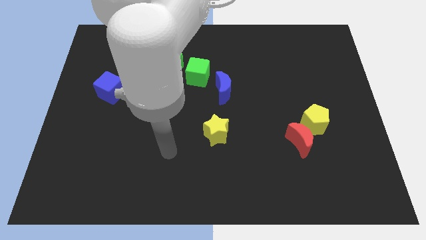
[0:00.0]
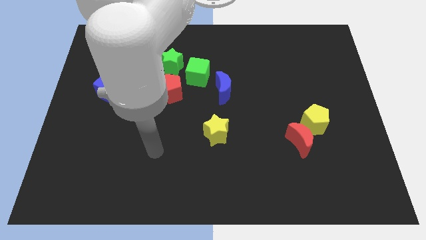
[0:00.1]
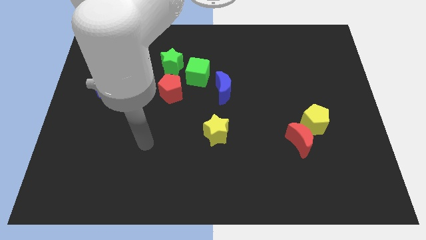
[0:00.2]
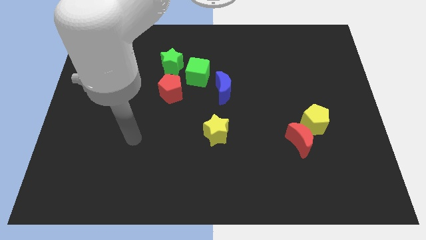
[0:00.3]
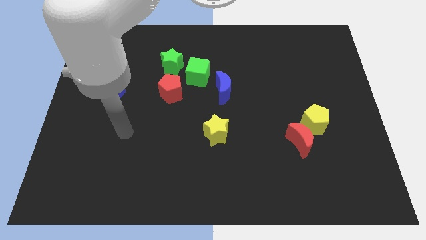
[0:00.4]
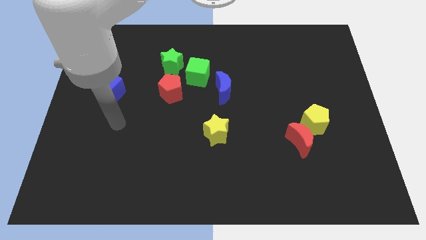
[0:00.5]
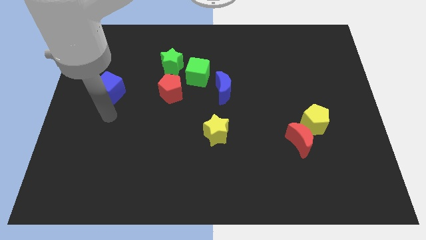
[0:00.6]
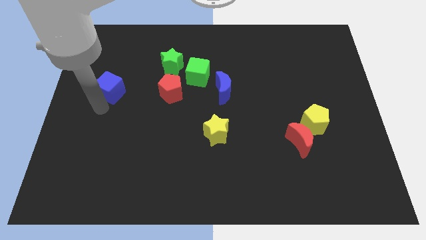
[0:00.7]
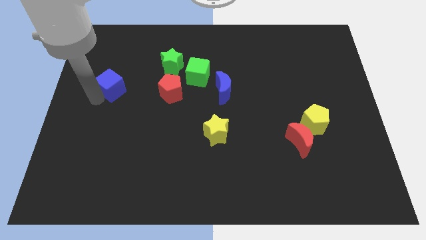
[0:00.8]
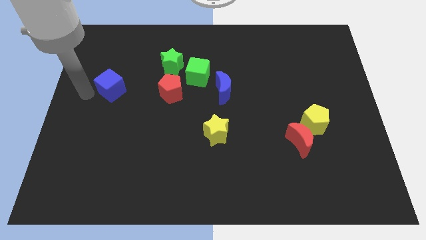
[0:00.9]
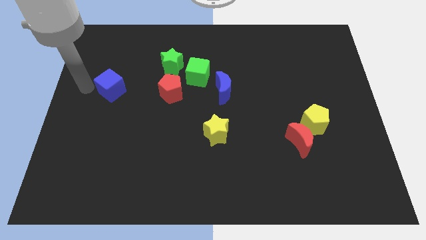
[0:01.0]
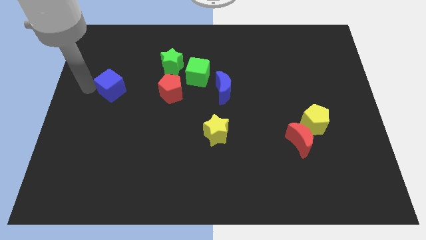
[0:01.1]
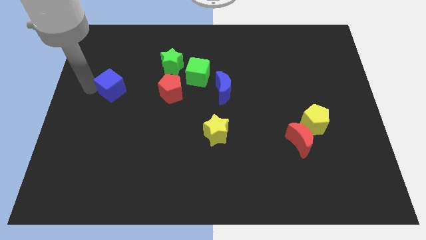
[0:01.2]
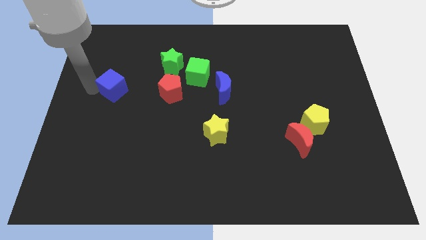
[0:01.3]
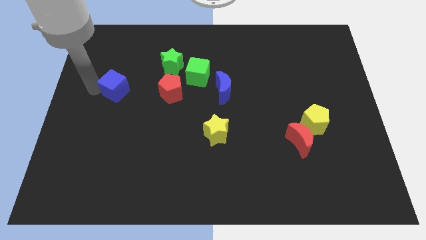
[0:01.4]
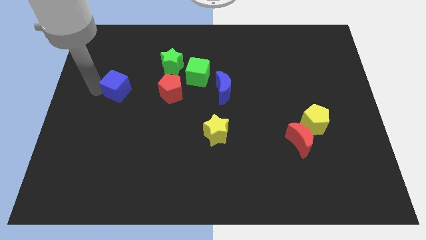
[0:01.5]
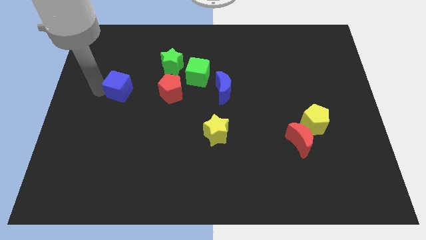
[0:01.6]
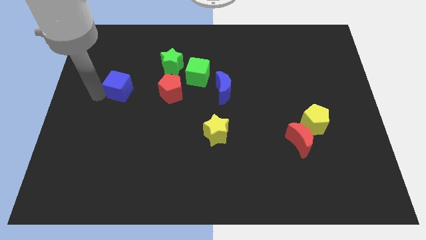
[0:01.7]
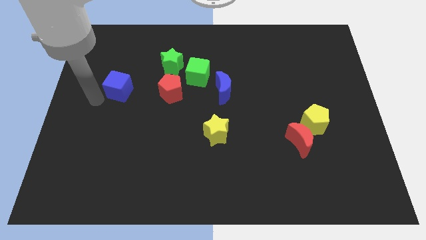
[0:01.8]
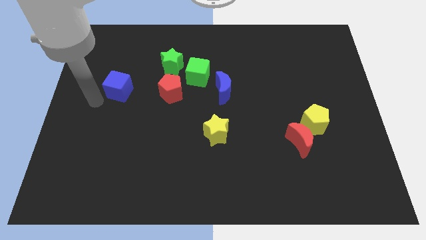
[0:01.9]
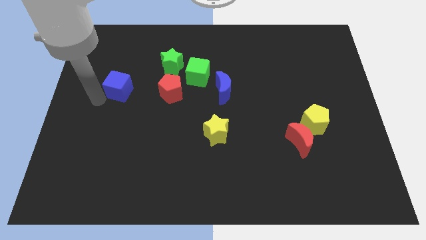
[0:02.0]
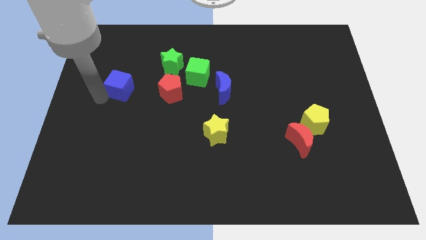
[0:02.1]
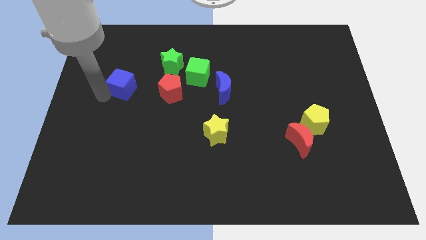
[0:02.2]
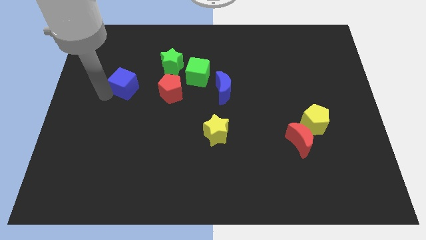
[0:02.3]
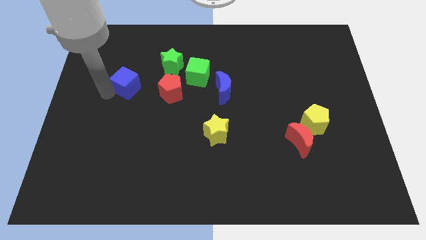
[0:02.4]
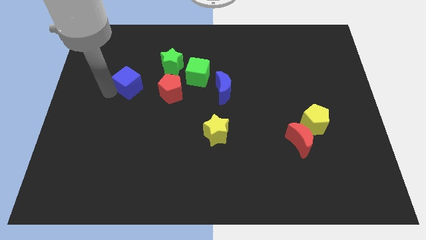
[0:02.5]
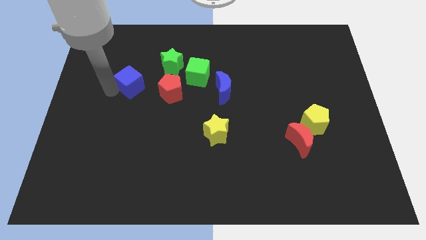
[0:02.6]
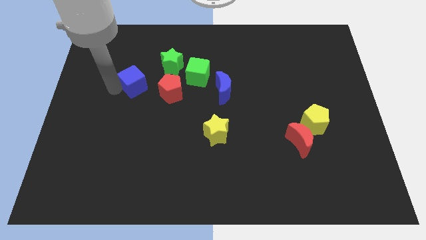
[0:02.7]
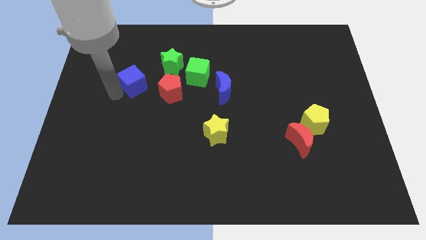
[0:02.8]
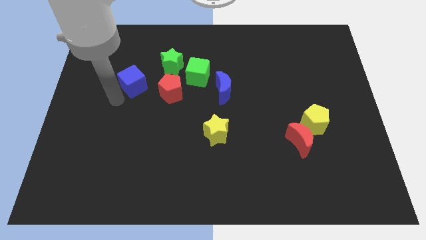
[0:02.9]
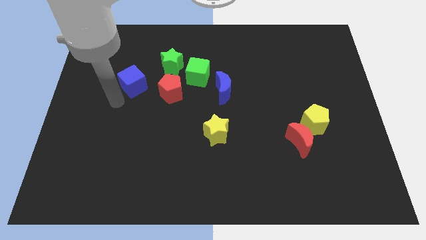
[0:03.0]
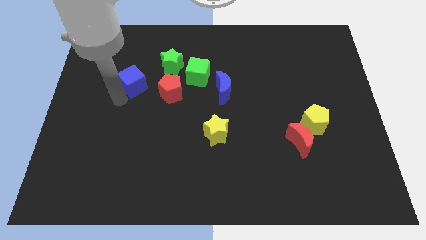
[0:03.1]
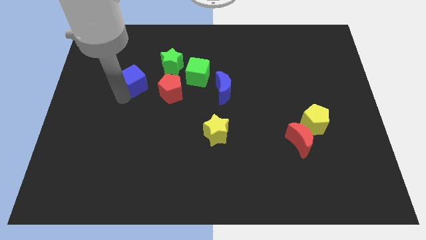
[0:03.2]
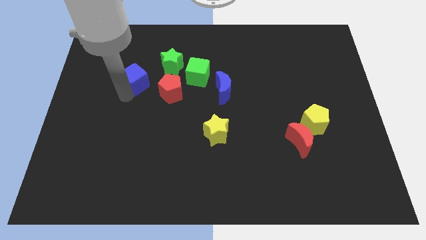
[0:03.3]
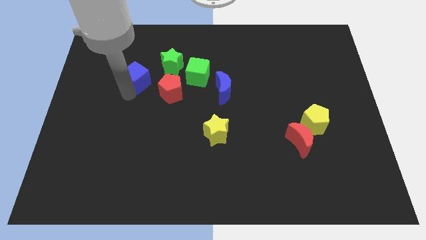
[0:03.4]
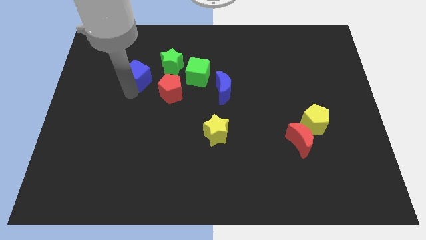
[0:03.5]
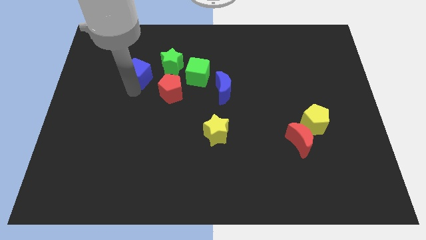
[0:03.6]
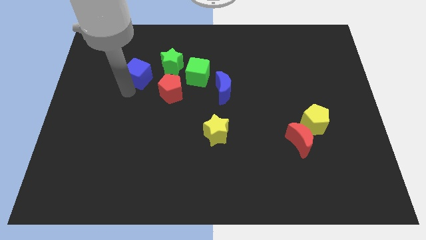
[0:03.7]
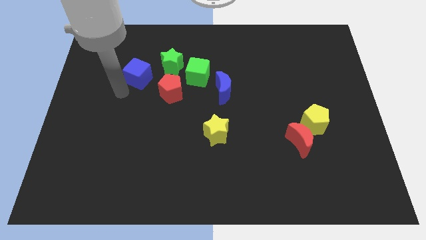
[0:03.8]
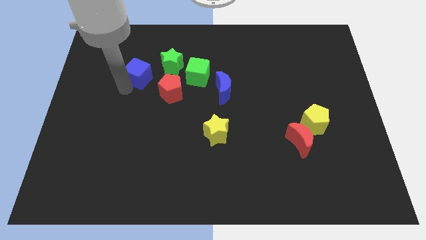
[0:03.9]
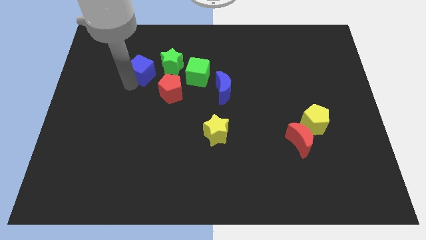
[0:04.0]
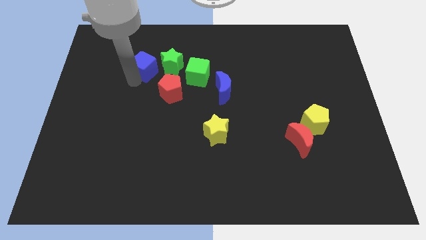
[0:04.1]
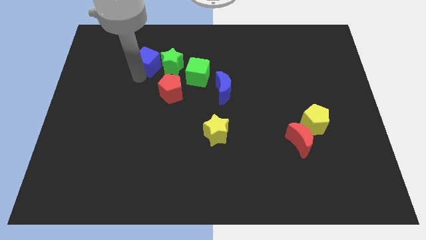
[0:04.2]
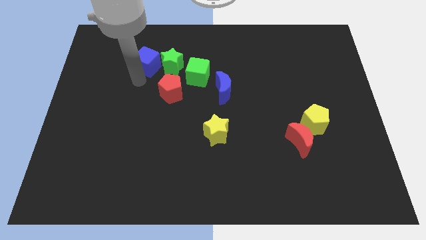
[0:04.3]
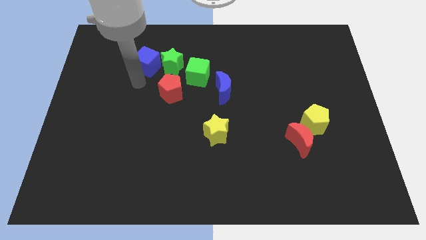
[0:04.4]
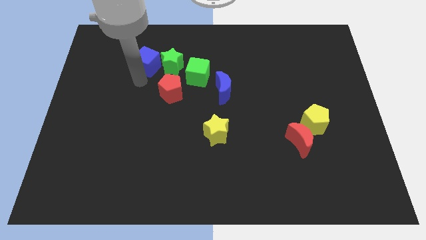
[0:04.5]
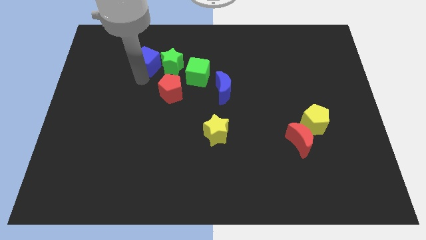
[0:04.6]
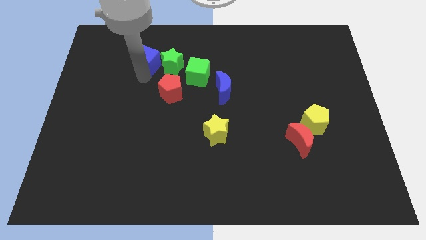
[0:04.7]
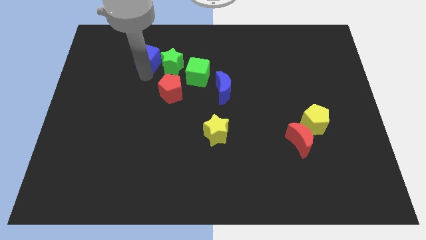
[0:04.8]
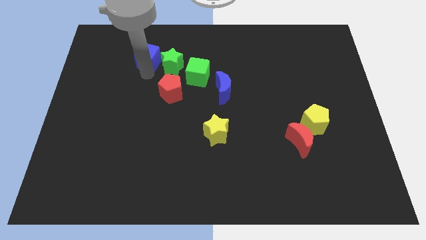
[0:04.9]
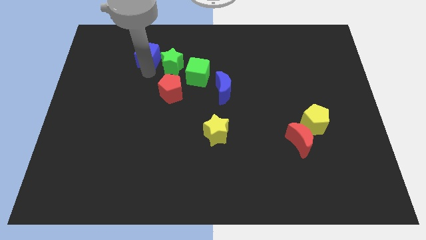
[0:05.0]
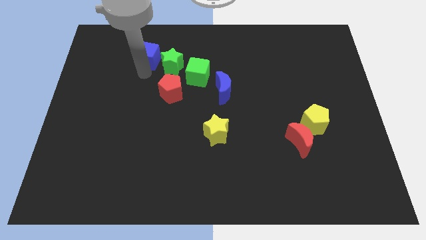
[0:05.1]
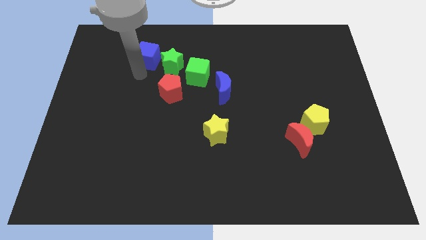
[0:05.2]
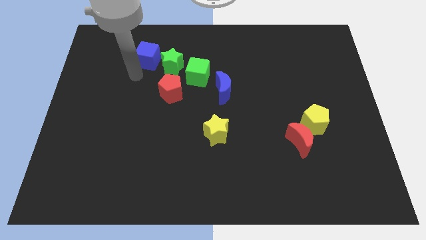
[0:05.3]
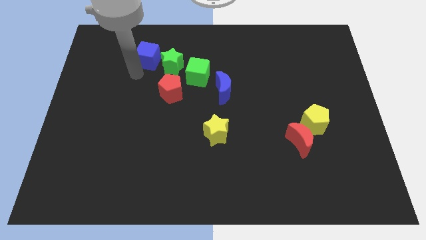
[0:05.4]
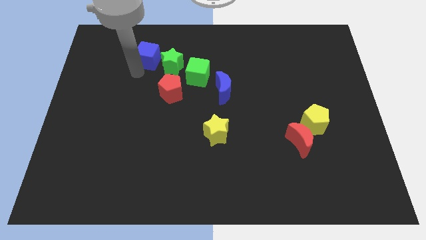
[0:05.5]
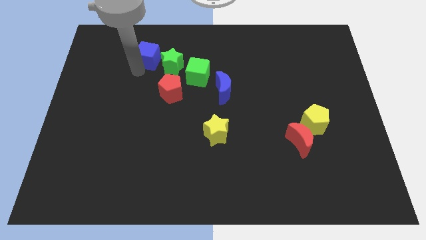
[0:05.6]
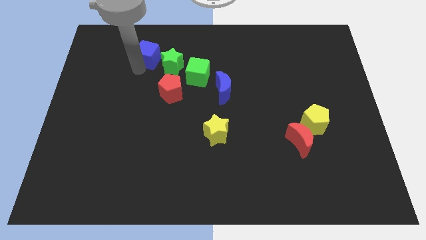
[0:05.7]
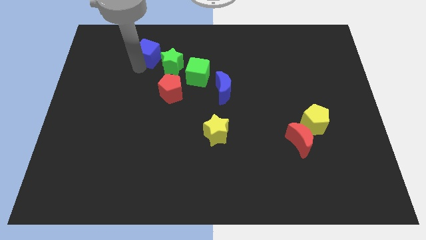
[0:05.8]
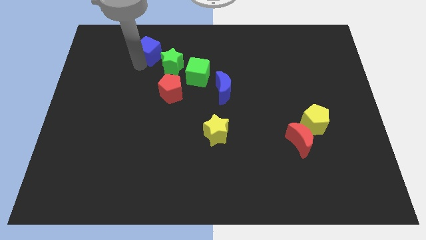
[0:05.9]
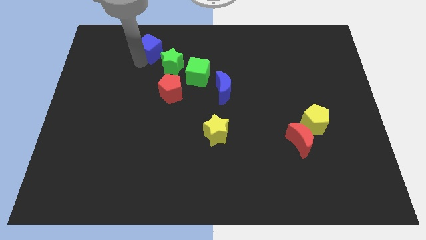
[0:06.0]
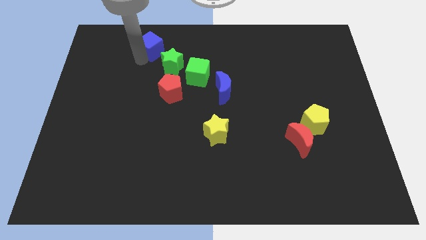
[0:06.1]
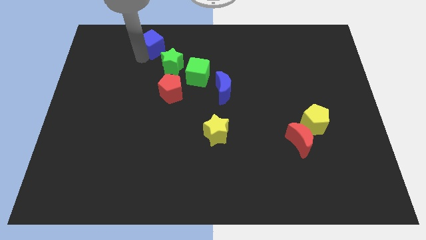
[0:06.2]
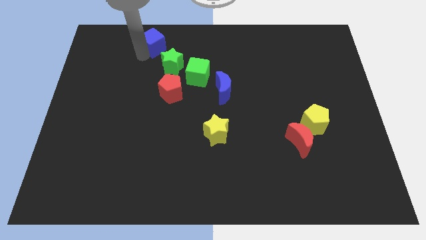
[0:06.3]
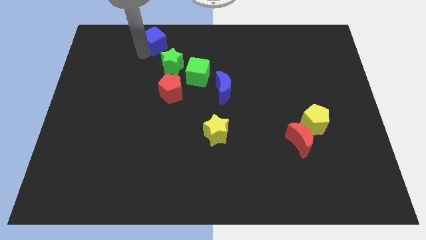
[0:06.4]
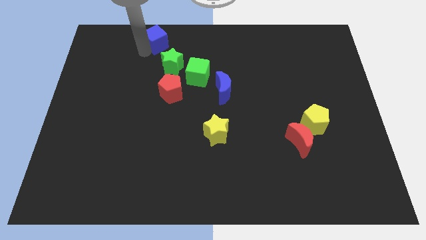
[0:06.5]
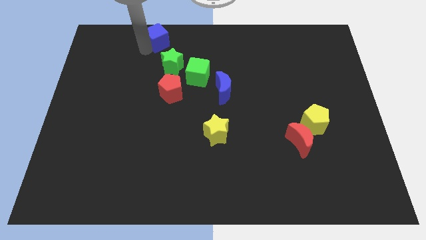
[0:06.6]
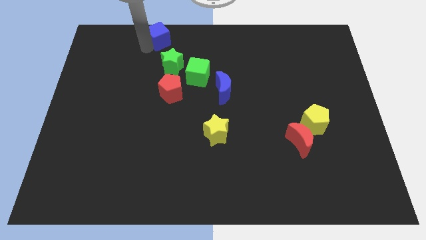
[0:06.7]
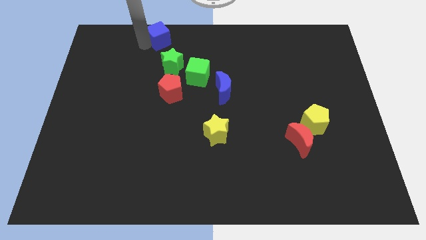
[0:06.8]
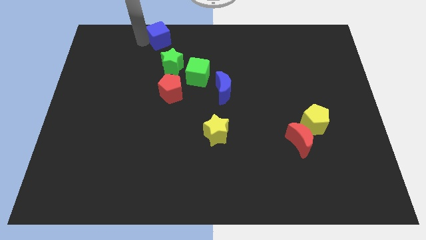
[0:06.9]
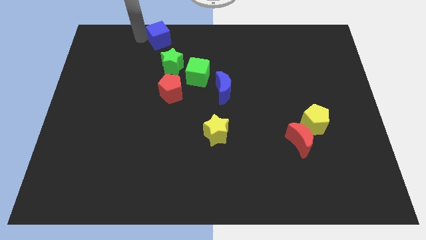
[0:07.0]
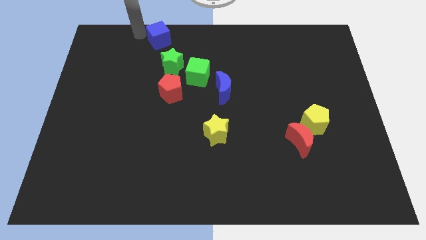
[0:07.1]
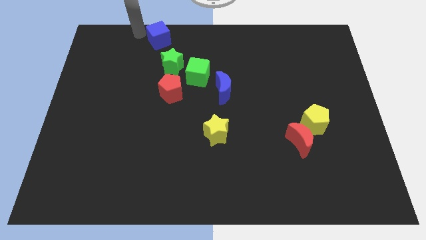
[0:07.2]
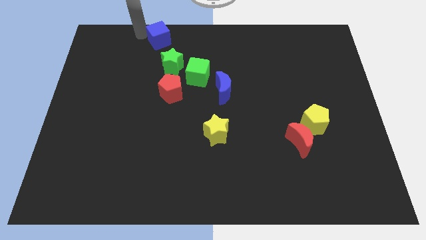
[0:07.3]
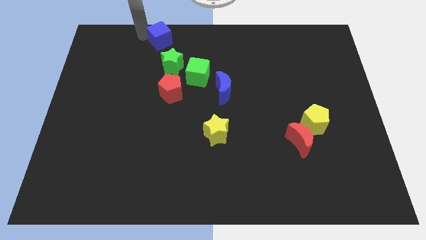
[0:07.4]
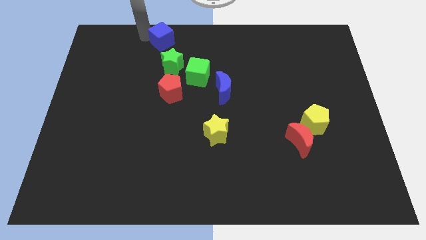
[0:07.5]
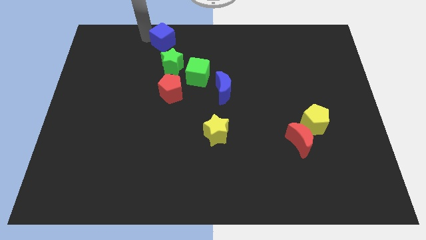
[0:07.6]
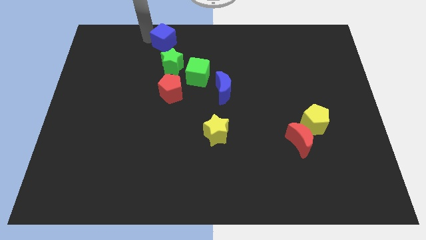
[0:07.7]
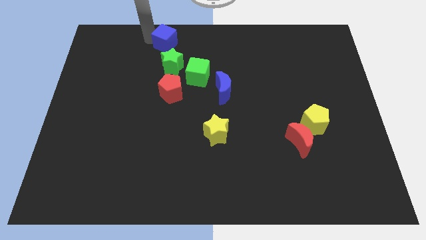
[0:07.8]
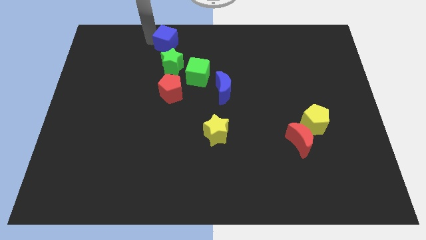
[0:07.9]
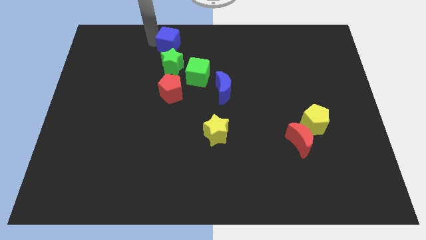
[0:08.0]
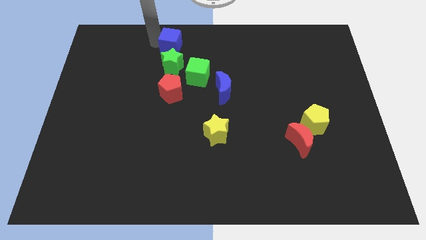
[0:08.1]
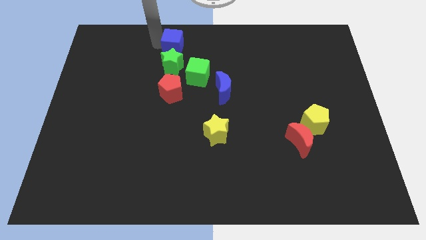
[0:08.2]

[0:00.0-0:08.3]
put the blue cube to the towards your base
